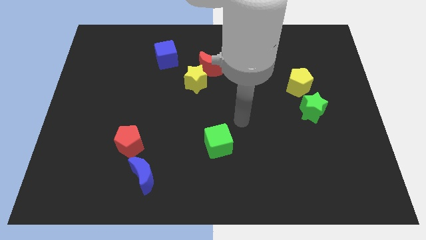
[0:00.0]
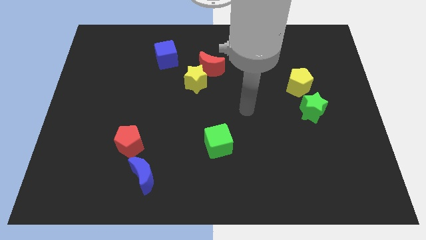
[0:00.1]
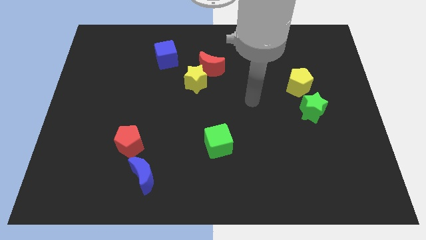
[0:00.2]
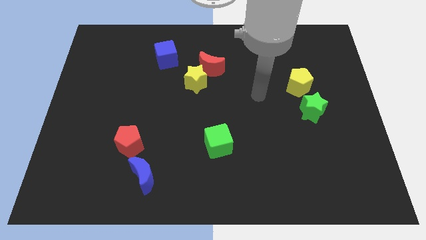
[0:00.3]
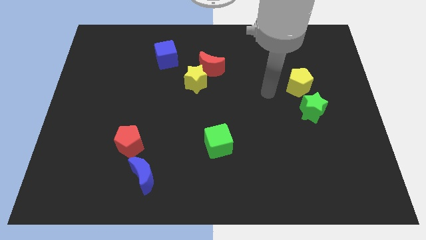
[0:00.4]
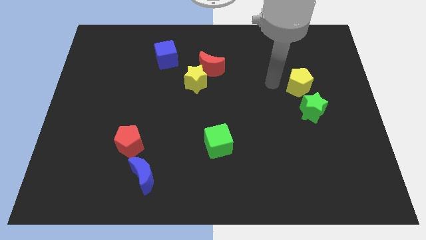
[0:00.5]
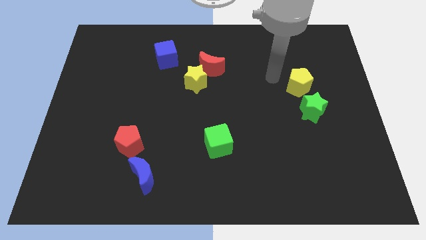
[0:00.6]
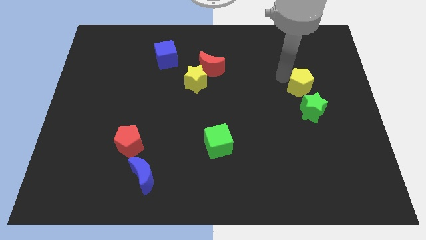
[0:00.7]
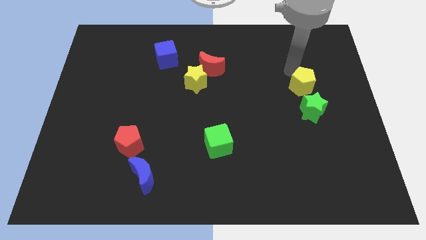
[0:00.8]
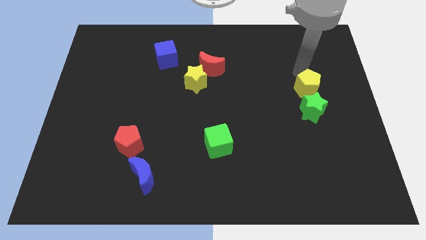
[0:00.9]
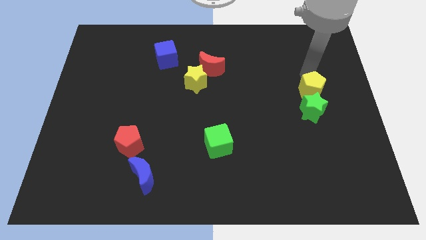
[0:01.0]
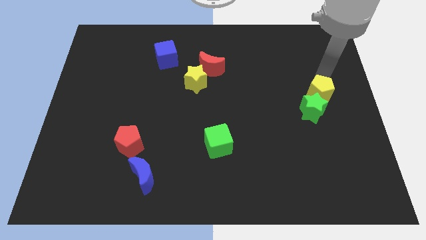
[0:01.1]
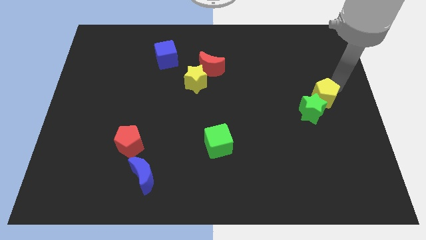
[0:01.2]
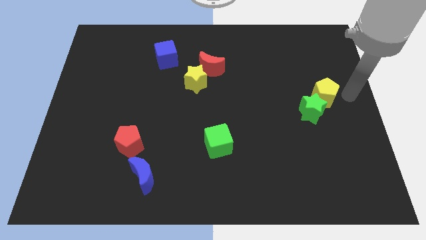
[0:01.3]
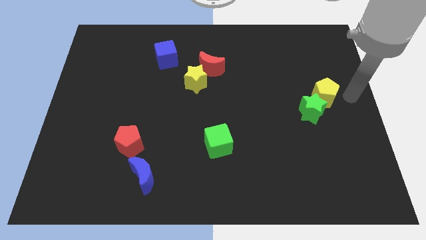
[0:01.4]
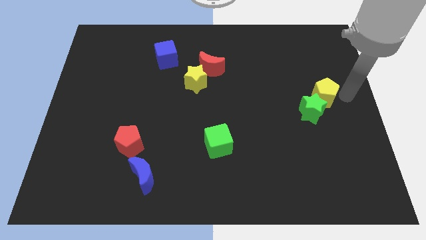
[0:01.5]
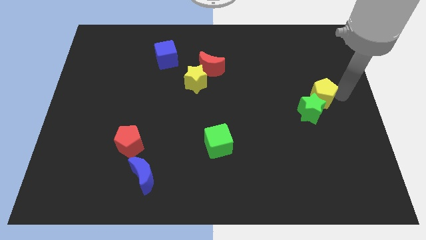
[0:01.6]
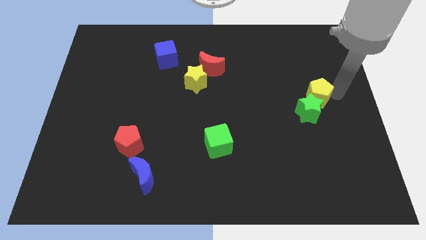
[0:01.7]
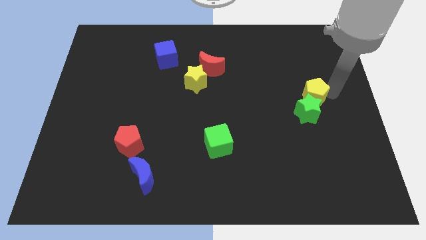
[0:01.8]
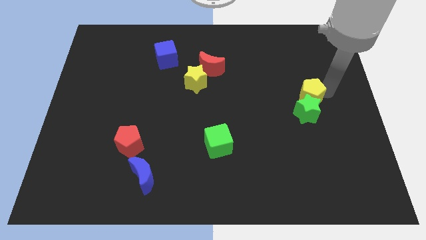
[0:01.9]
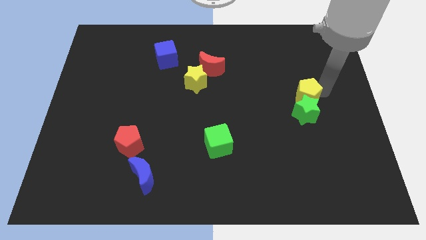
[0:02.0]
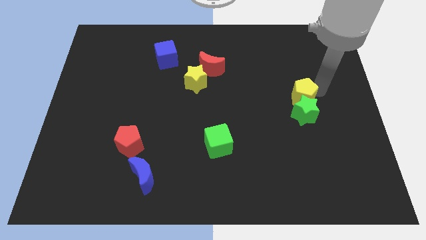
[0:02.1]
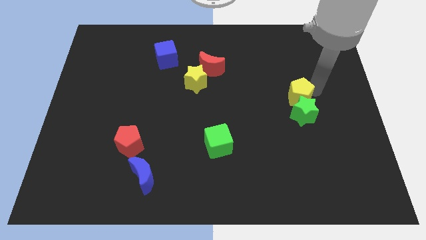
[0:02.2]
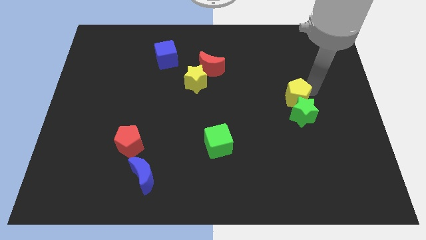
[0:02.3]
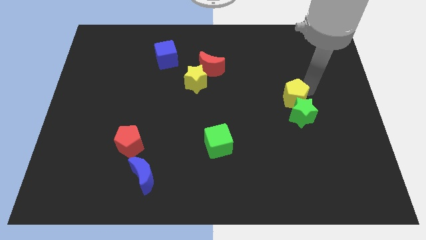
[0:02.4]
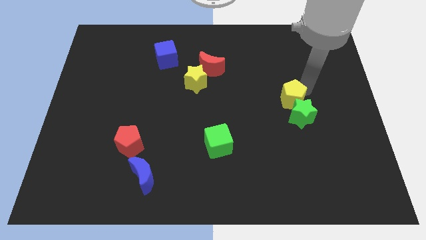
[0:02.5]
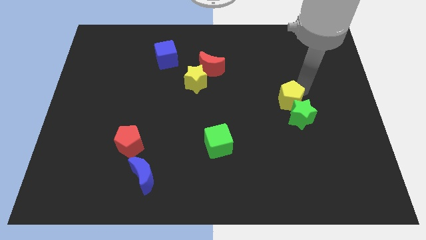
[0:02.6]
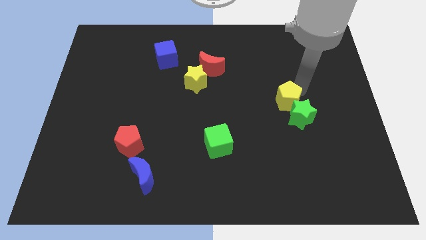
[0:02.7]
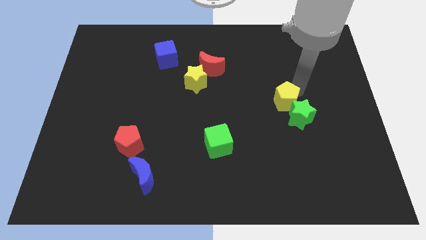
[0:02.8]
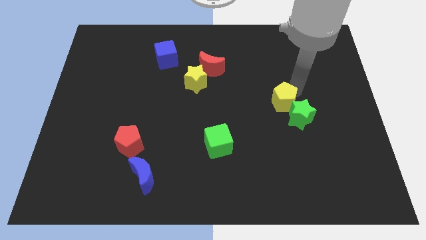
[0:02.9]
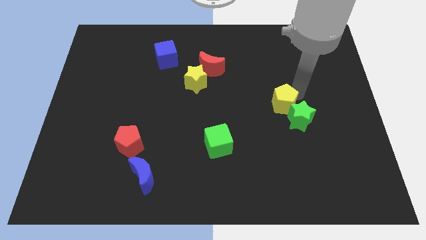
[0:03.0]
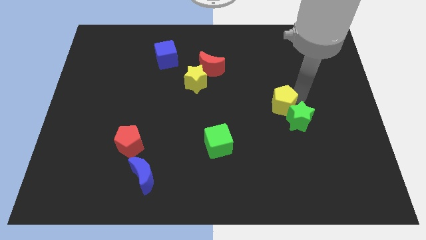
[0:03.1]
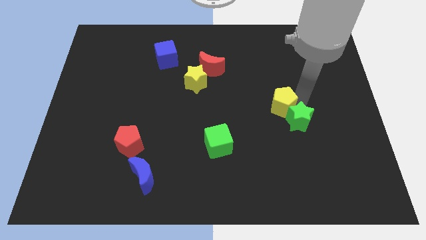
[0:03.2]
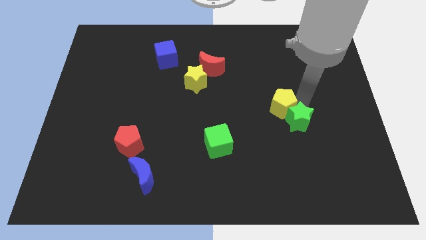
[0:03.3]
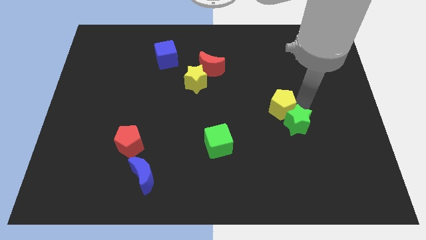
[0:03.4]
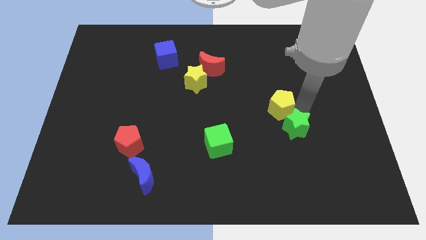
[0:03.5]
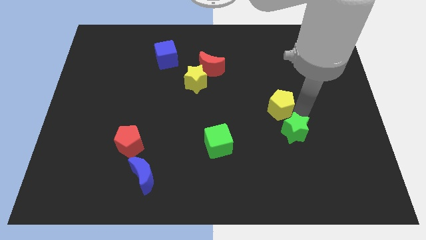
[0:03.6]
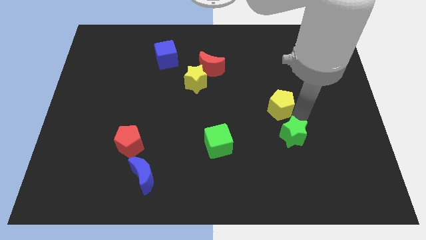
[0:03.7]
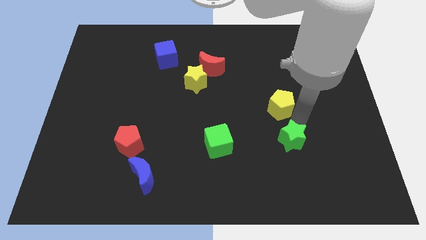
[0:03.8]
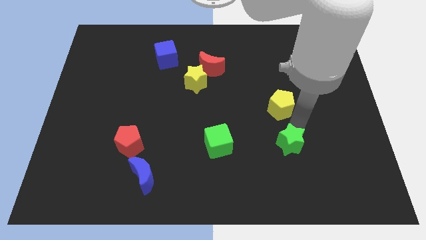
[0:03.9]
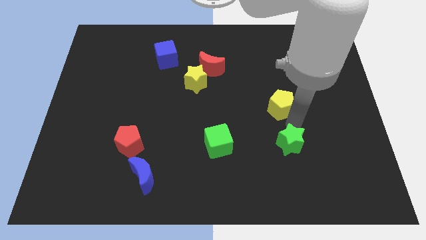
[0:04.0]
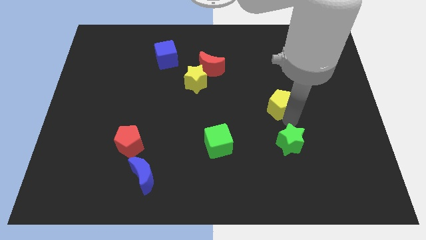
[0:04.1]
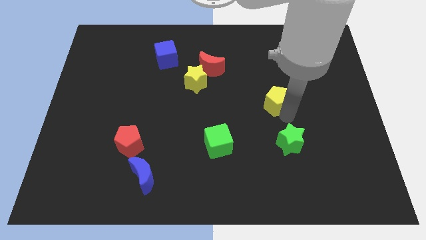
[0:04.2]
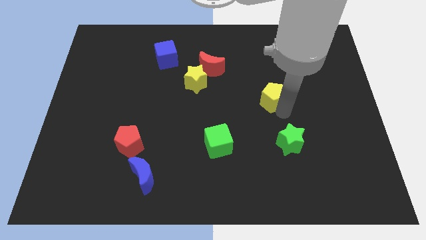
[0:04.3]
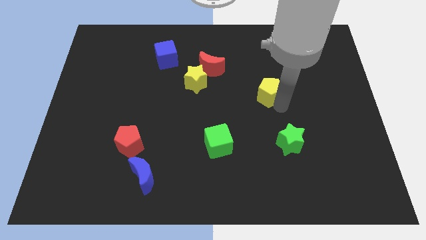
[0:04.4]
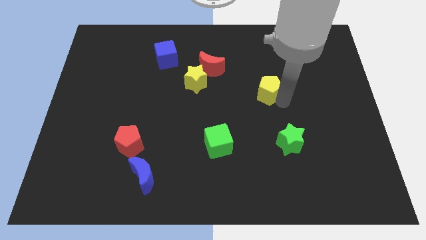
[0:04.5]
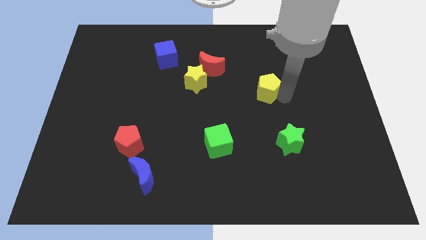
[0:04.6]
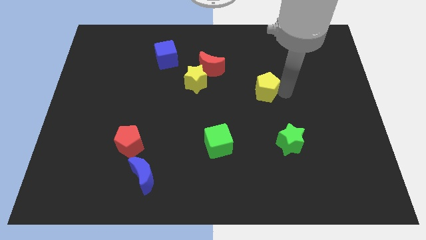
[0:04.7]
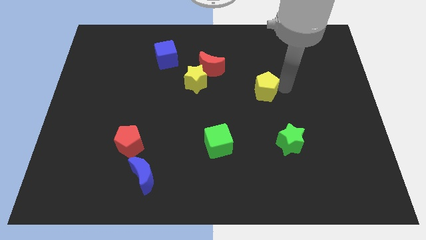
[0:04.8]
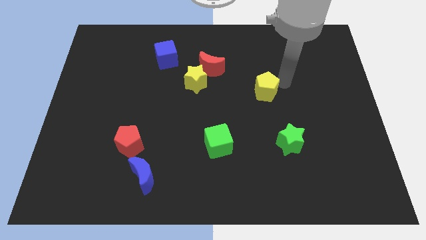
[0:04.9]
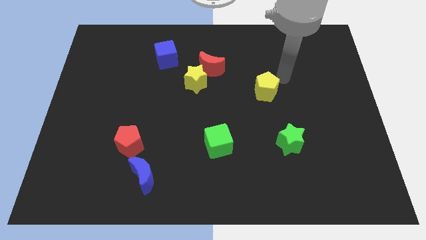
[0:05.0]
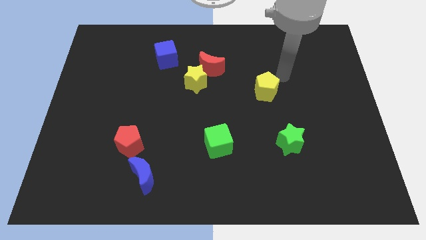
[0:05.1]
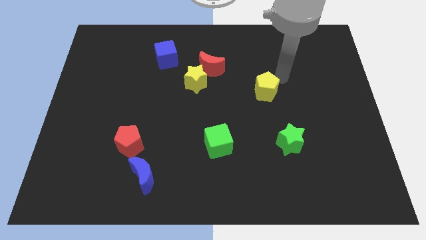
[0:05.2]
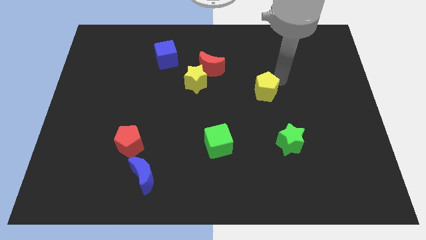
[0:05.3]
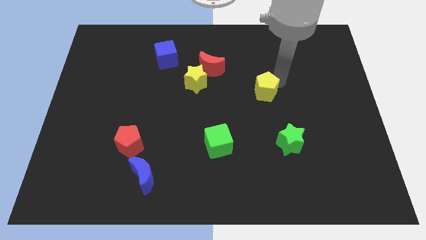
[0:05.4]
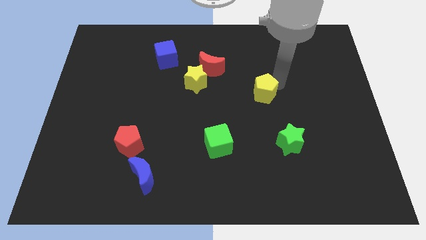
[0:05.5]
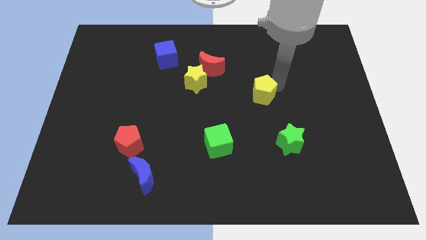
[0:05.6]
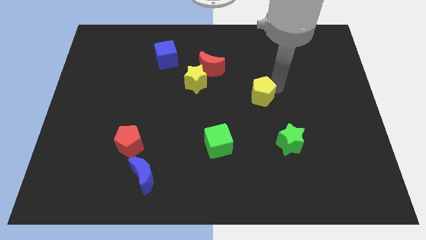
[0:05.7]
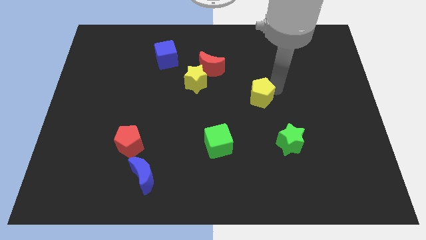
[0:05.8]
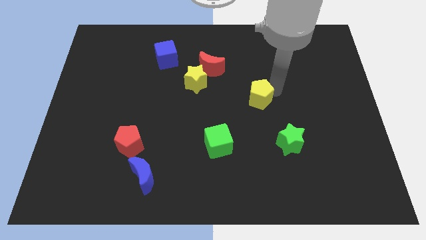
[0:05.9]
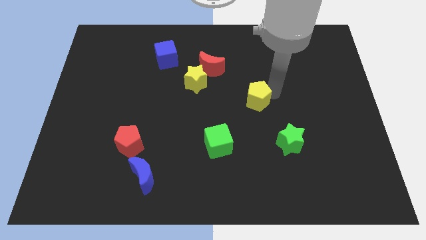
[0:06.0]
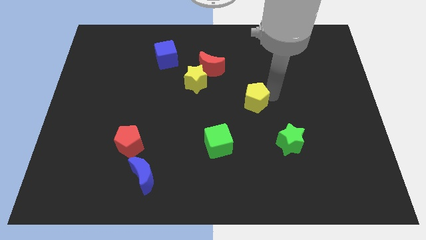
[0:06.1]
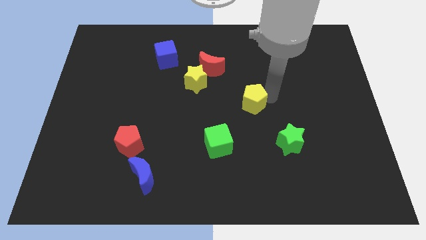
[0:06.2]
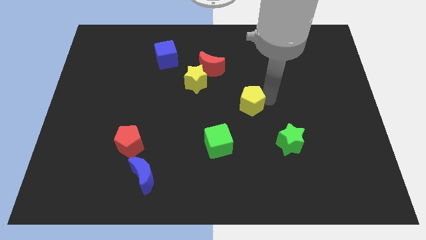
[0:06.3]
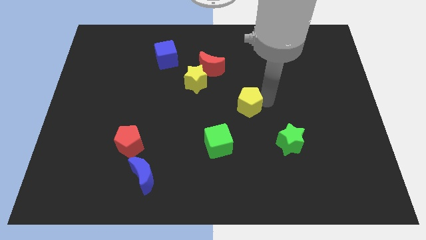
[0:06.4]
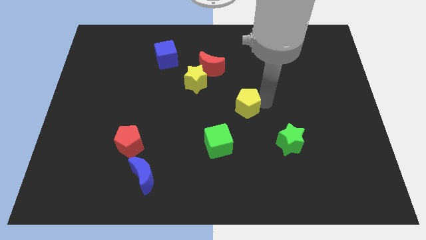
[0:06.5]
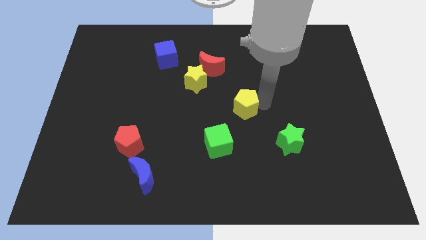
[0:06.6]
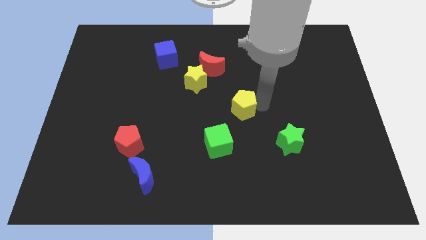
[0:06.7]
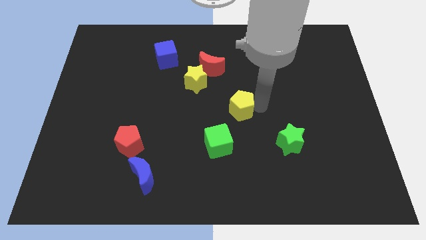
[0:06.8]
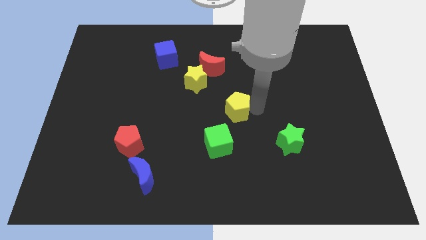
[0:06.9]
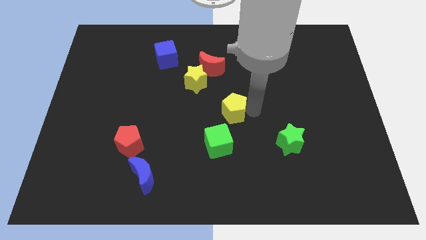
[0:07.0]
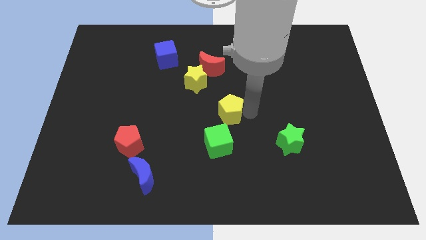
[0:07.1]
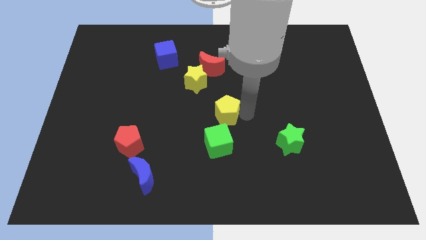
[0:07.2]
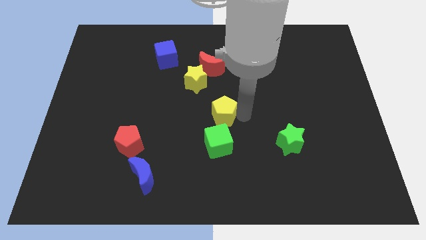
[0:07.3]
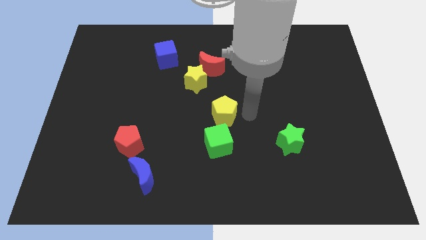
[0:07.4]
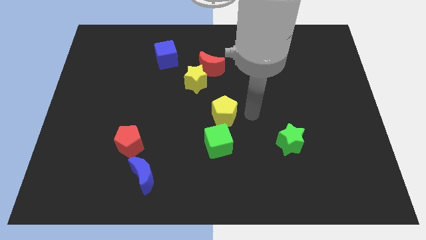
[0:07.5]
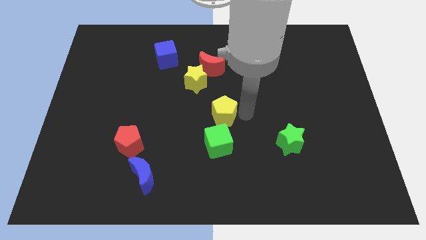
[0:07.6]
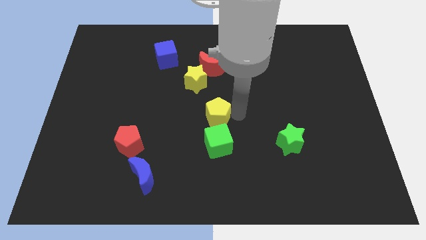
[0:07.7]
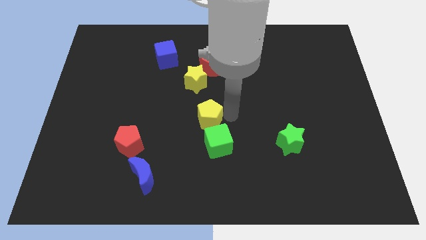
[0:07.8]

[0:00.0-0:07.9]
move the yellow pentagon below the yellow star
